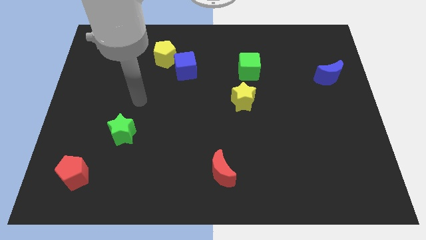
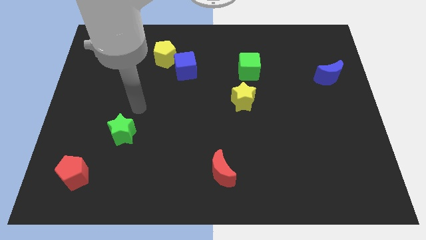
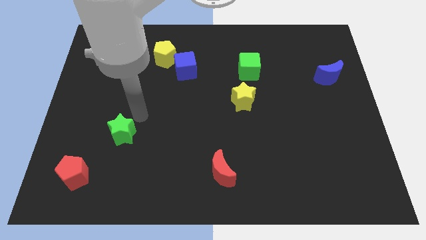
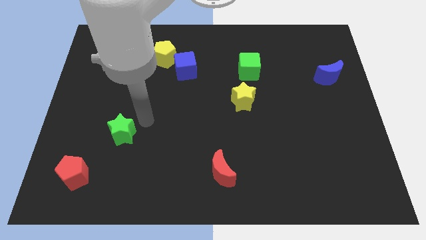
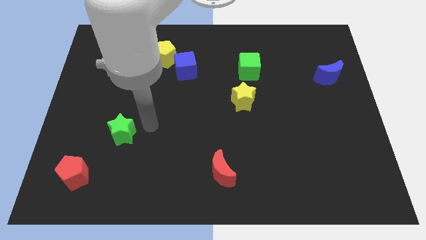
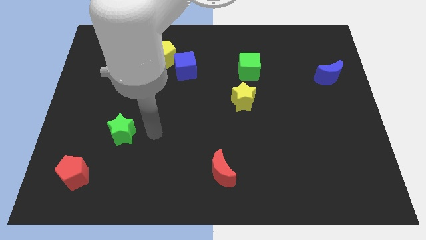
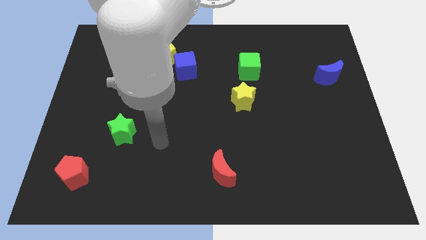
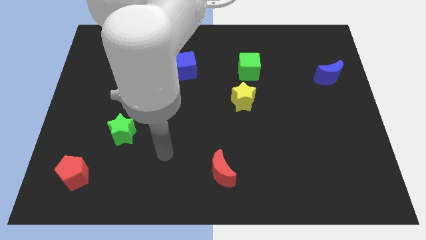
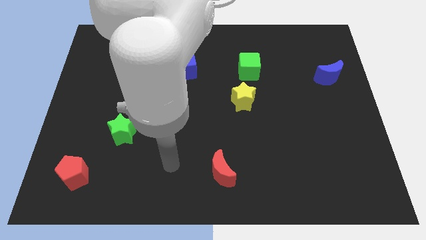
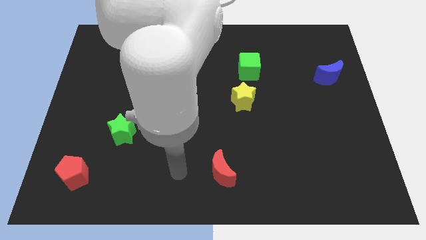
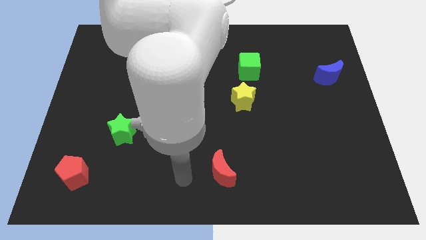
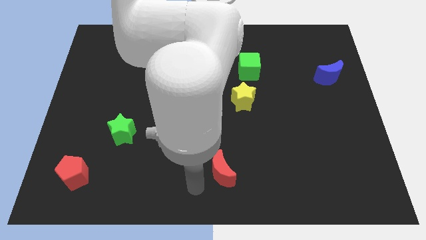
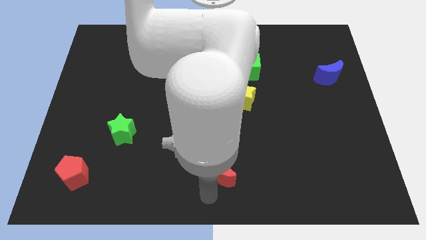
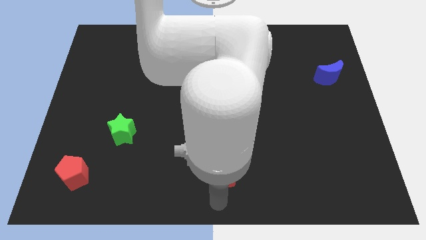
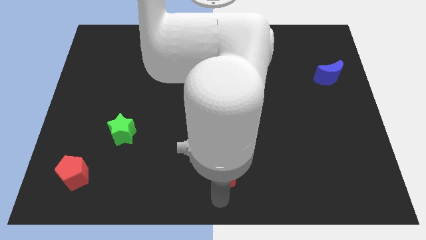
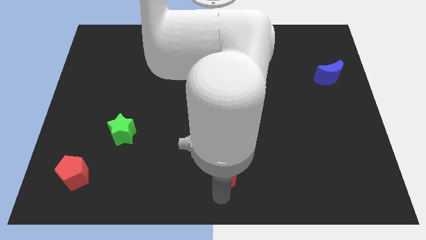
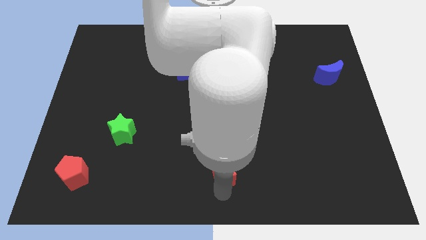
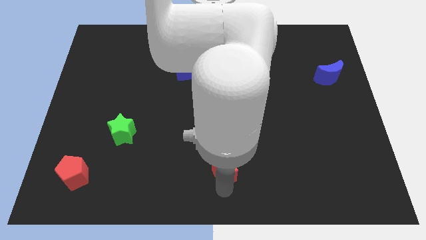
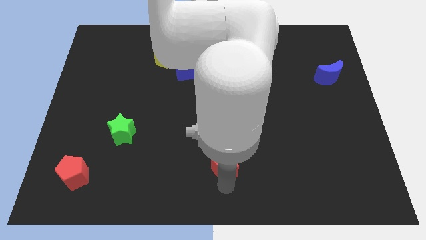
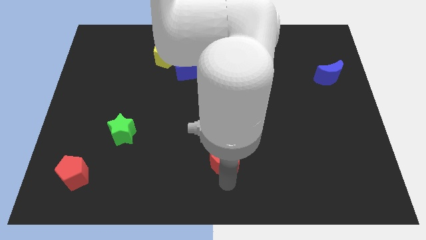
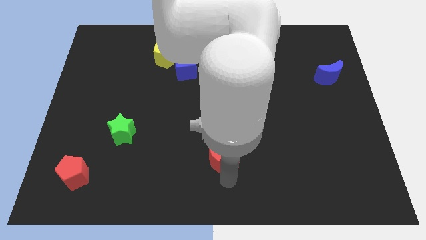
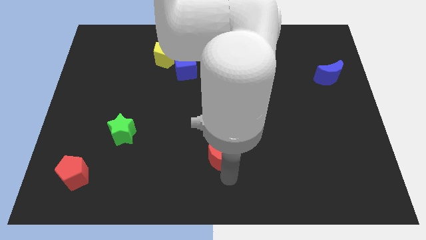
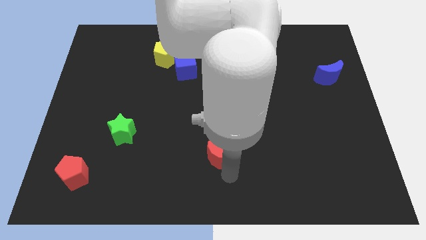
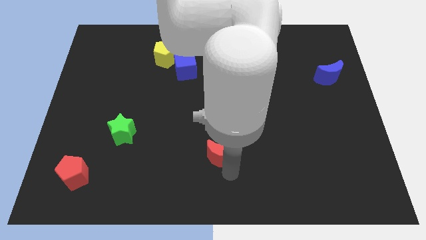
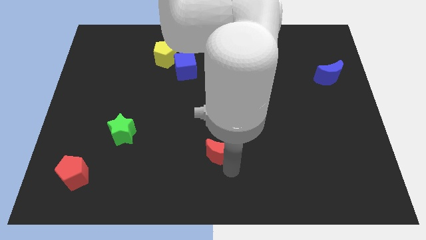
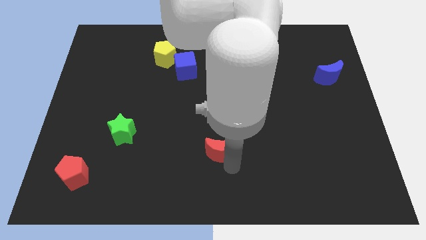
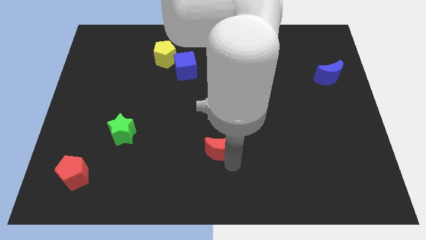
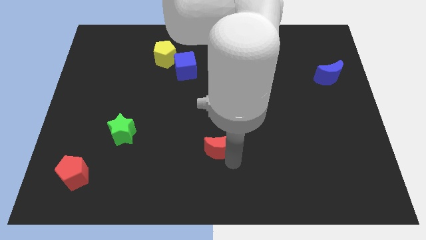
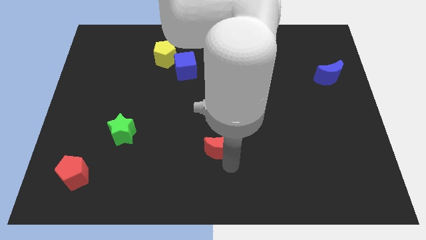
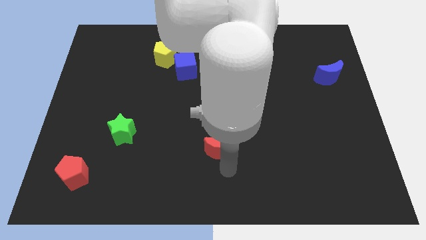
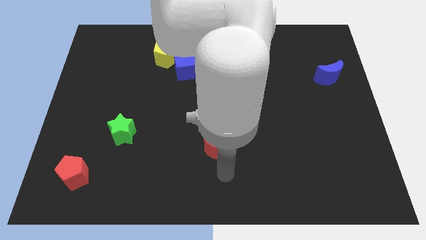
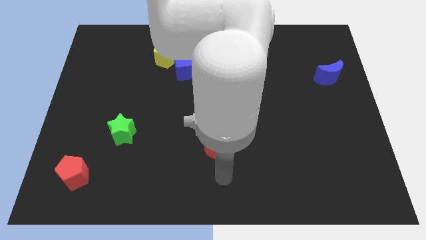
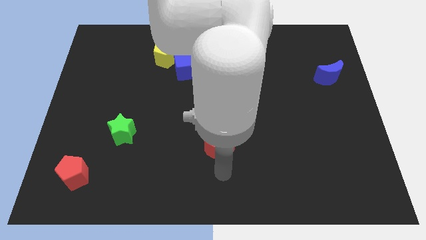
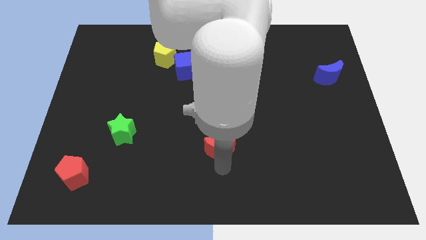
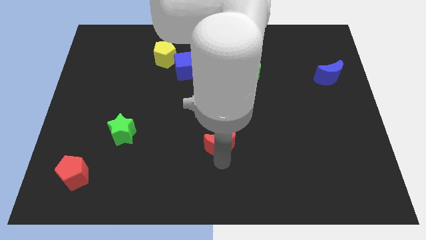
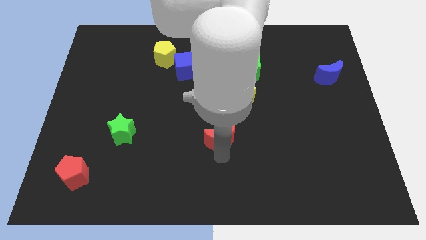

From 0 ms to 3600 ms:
move the red moon up somewhat

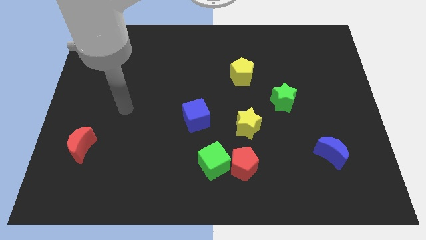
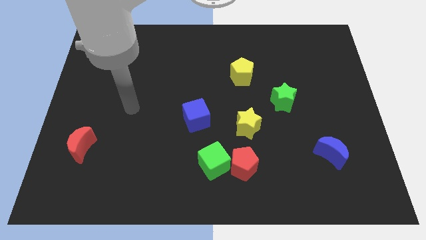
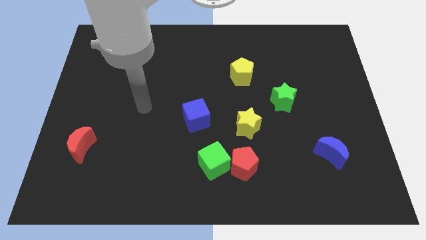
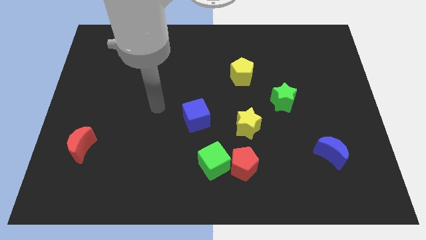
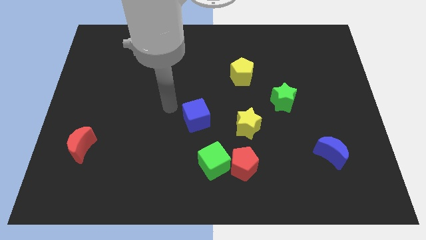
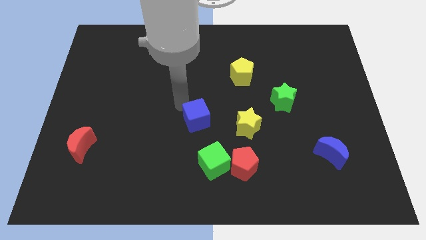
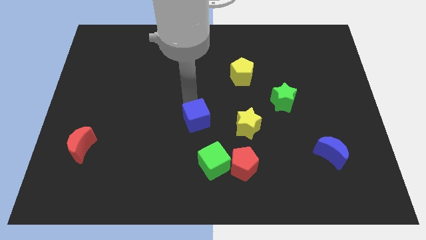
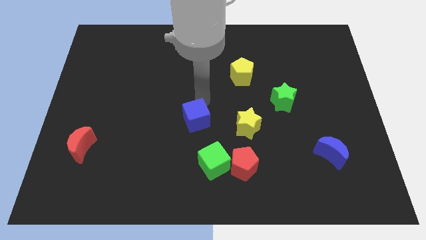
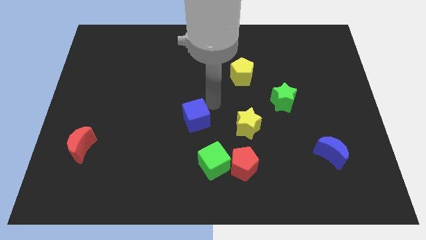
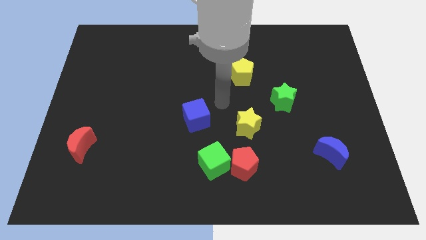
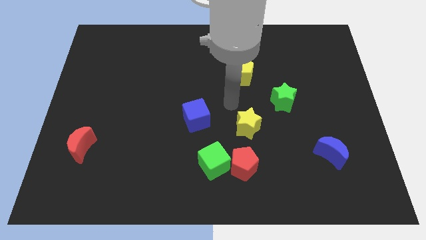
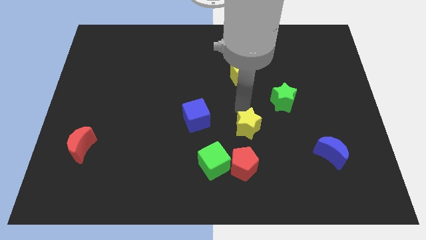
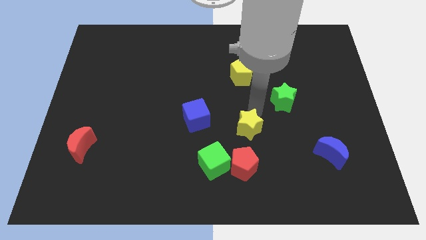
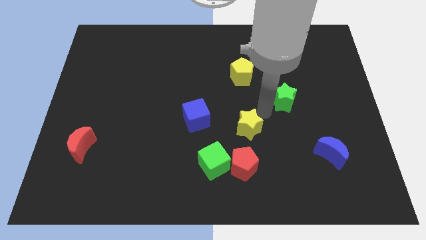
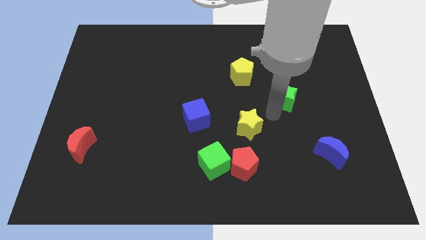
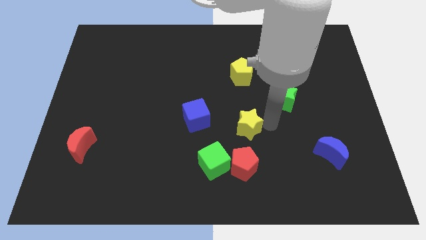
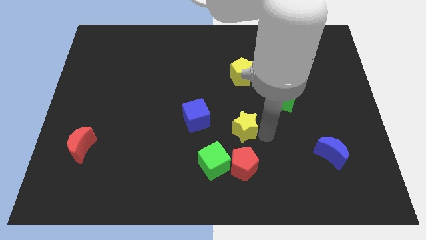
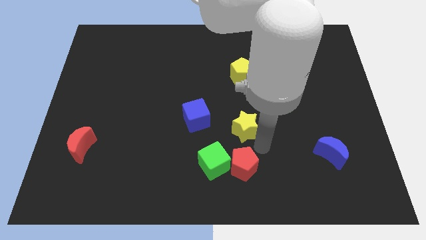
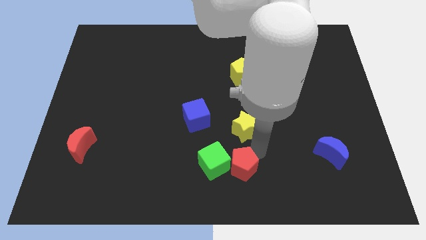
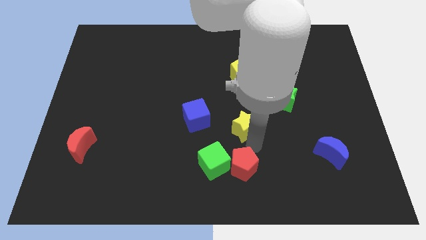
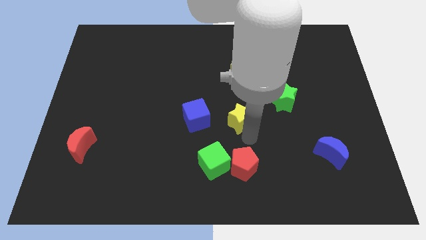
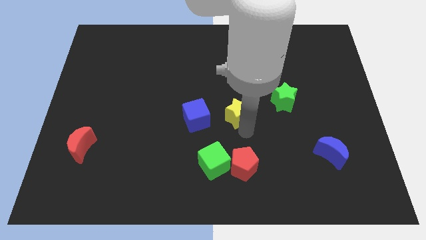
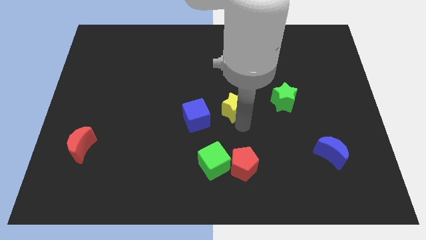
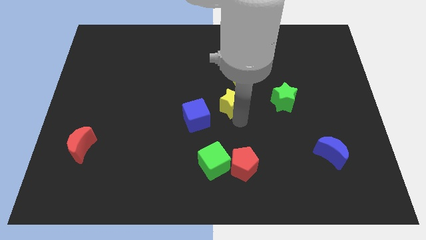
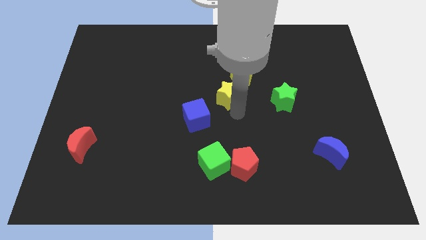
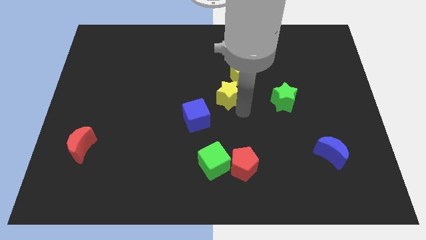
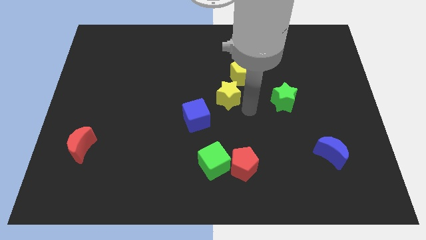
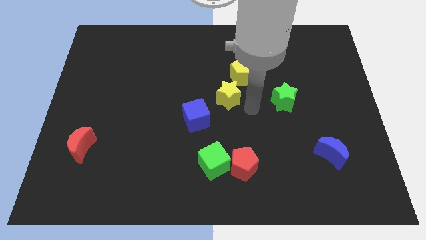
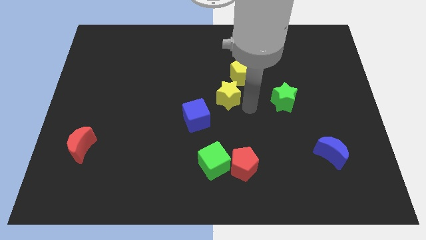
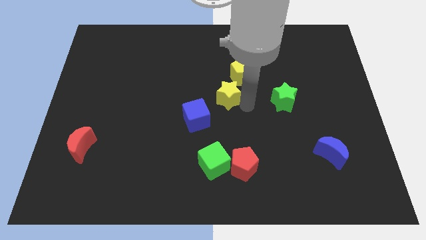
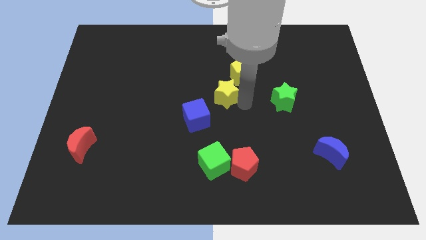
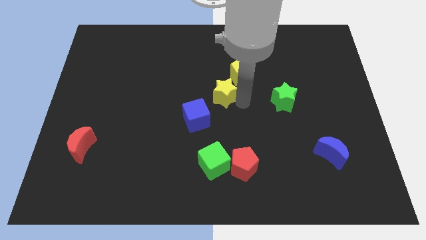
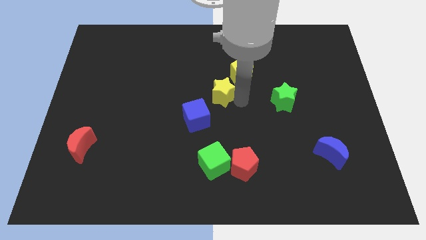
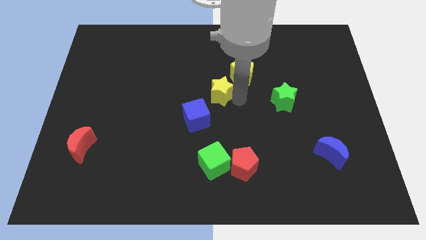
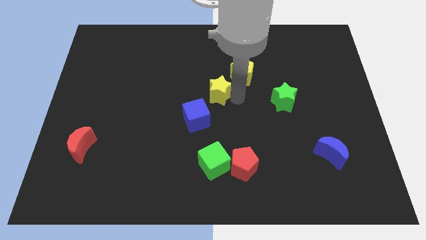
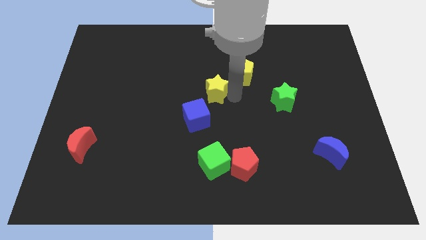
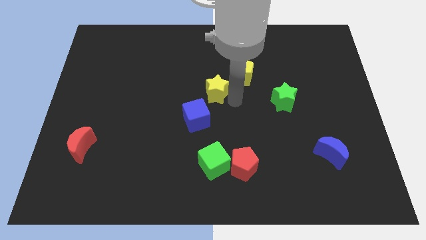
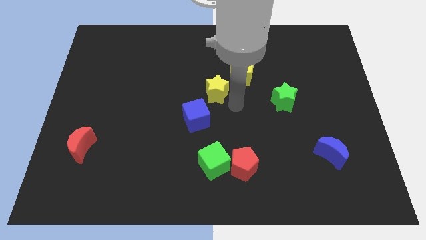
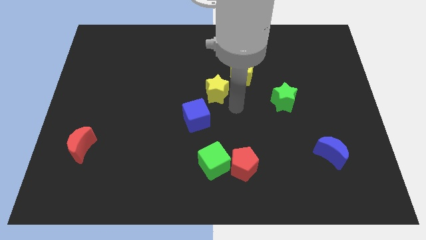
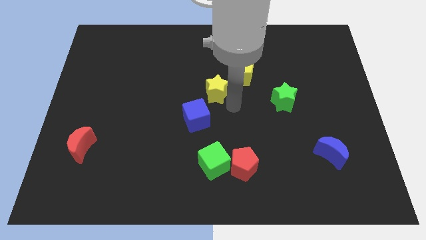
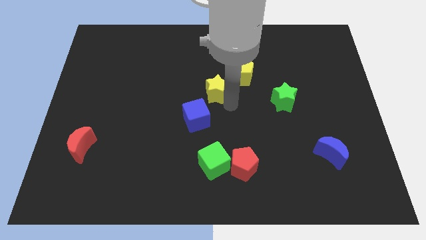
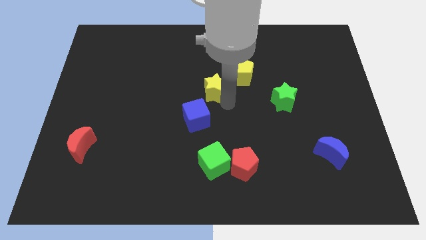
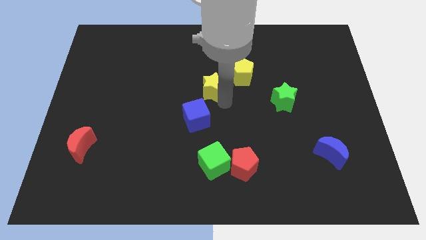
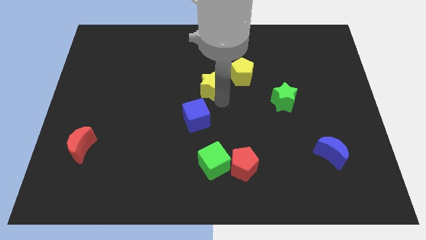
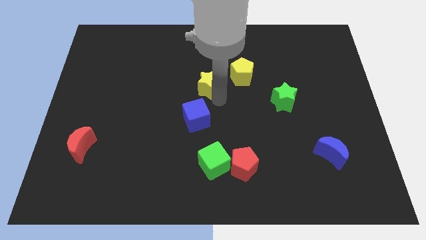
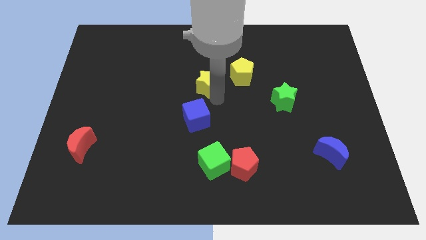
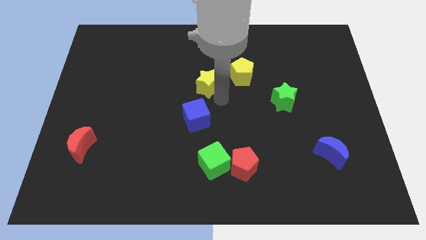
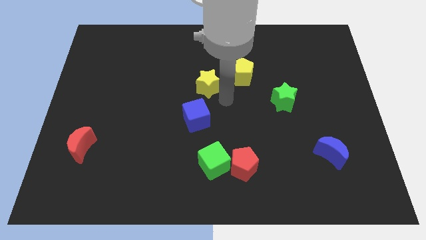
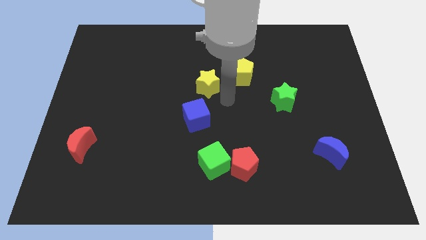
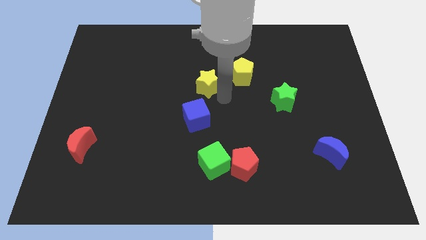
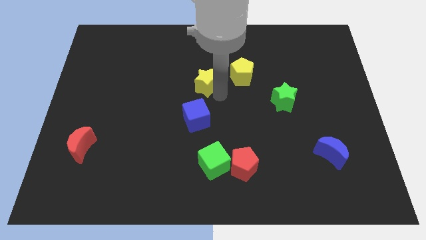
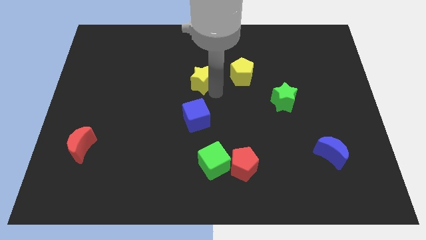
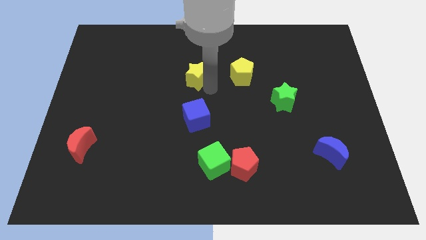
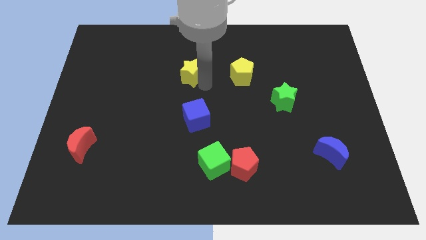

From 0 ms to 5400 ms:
move the yellow star diagonally up and to the left
